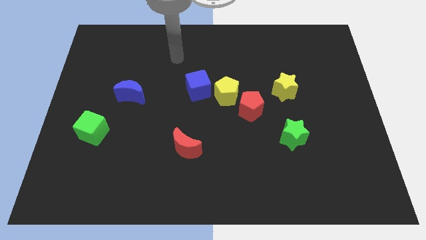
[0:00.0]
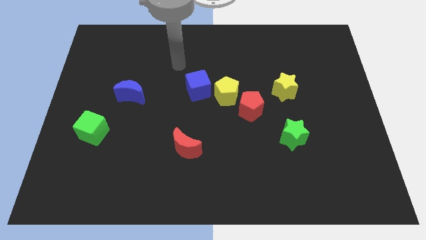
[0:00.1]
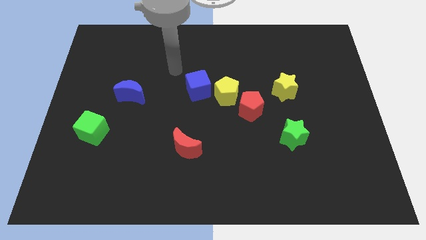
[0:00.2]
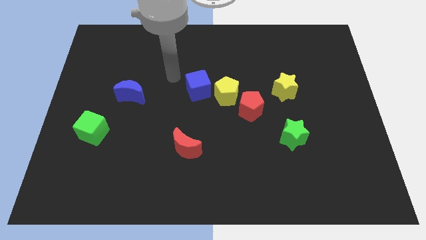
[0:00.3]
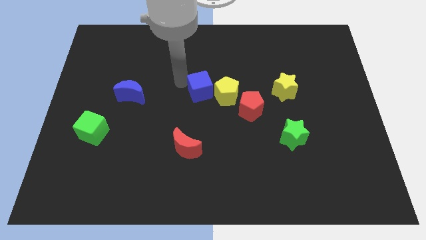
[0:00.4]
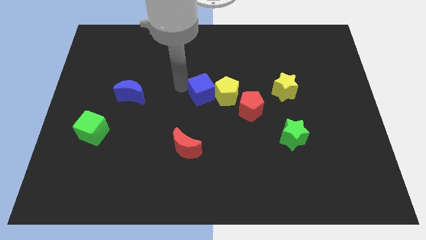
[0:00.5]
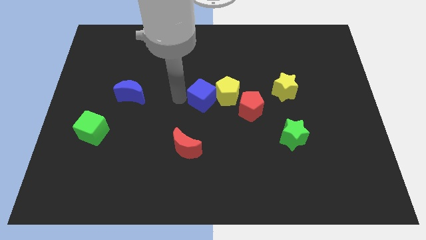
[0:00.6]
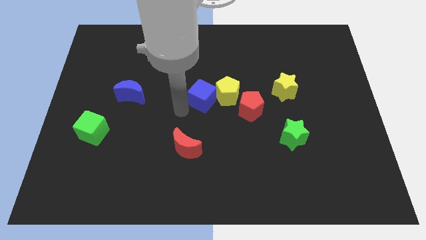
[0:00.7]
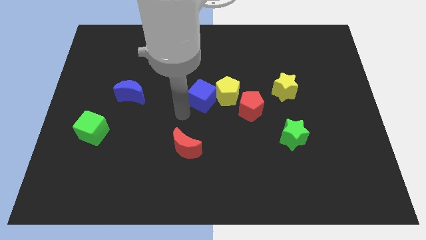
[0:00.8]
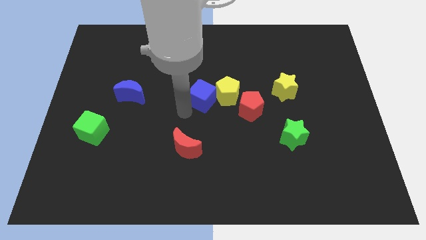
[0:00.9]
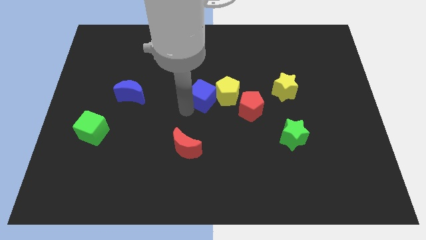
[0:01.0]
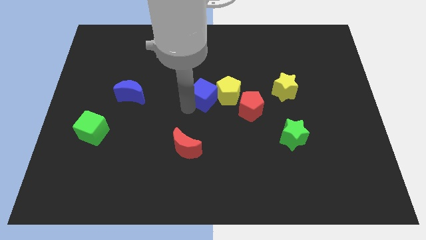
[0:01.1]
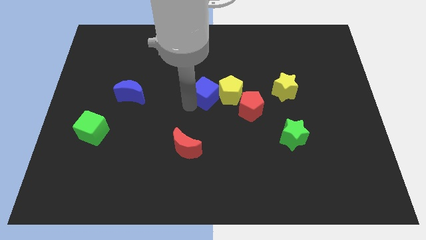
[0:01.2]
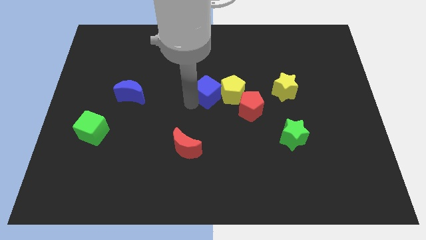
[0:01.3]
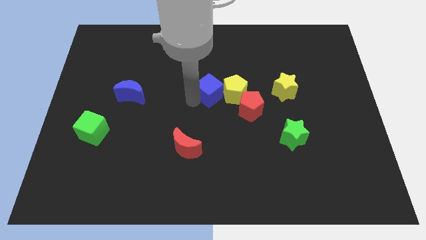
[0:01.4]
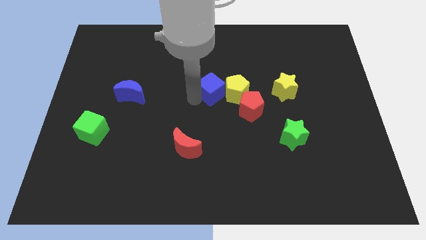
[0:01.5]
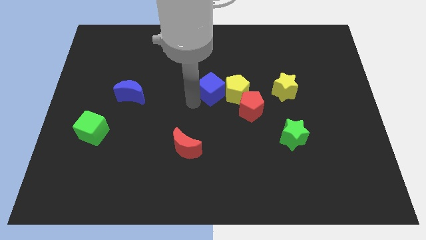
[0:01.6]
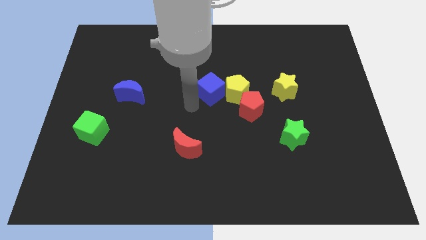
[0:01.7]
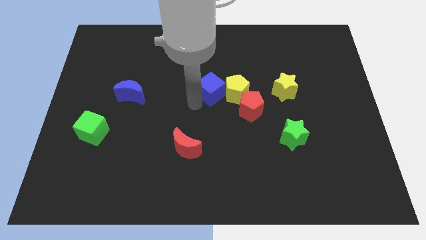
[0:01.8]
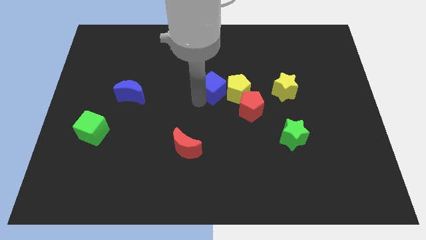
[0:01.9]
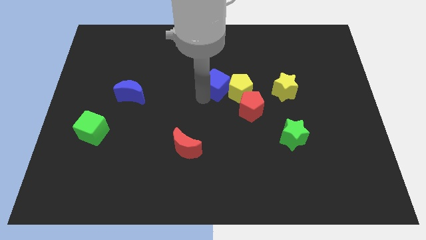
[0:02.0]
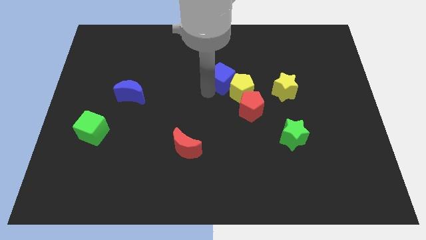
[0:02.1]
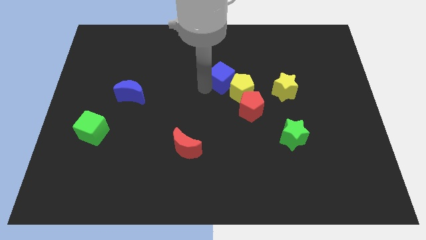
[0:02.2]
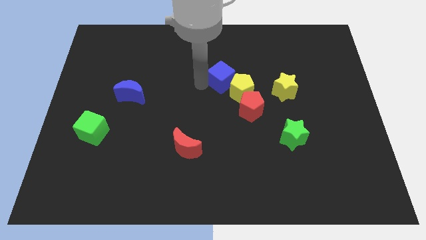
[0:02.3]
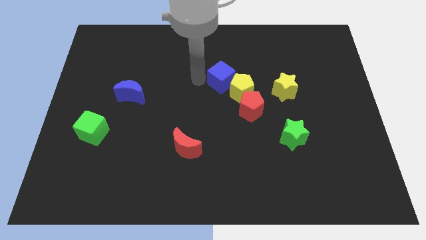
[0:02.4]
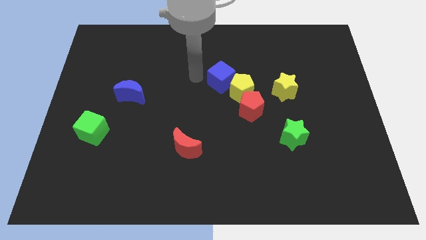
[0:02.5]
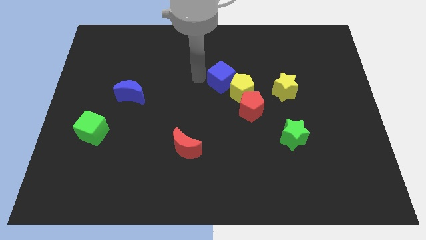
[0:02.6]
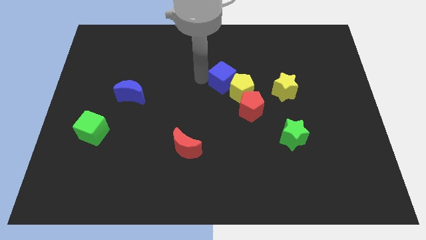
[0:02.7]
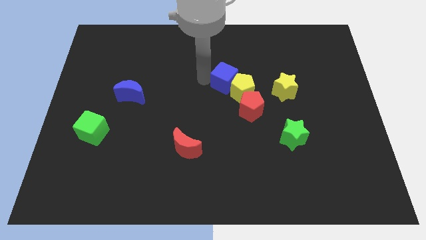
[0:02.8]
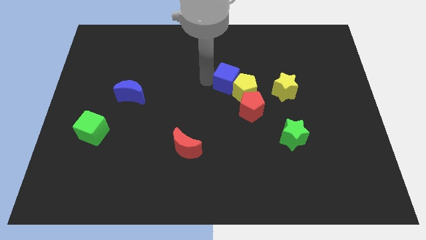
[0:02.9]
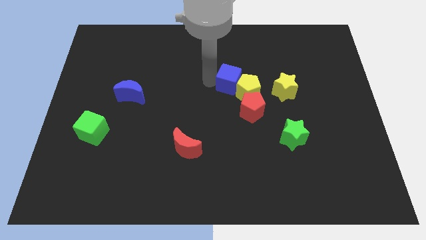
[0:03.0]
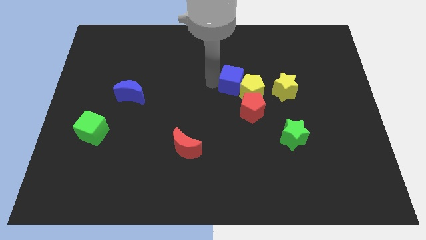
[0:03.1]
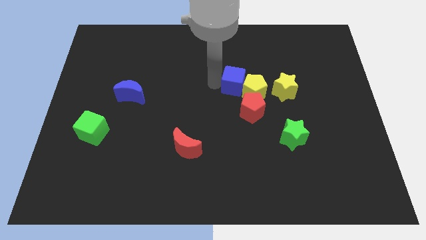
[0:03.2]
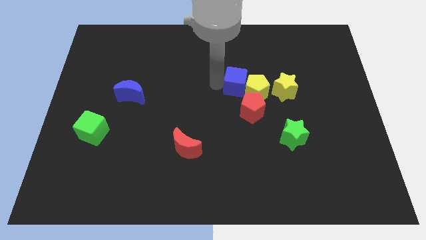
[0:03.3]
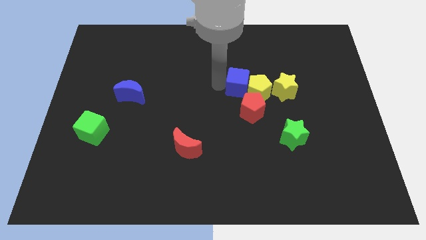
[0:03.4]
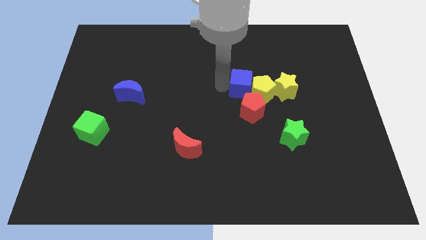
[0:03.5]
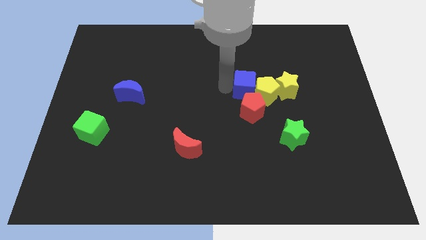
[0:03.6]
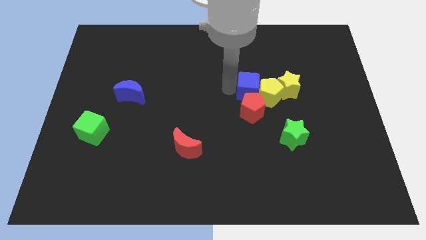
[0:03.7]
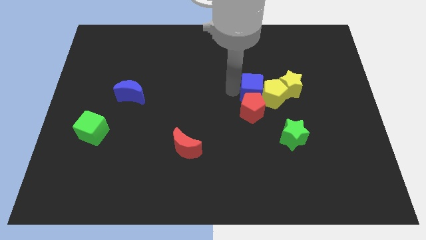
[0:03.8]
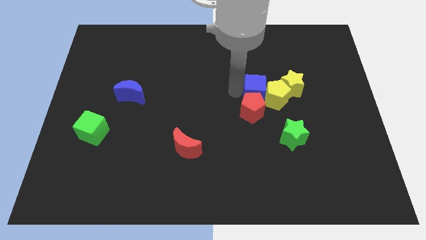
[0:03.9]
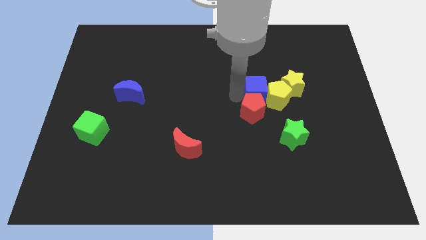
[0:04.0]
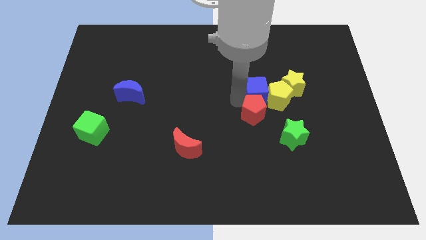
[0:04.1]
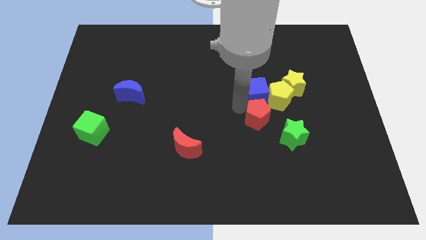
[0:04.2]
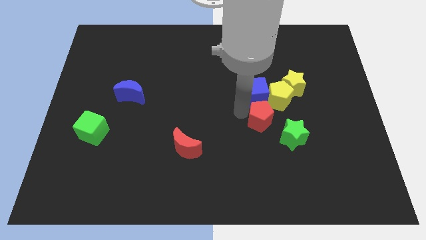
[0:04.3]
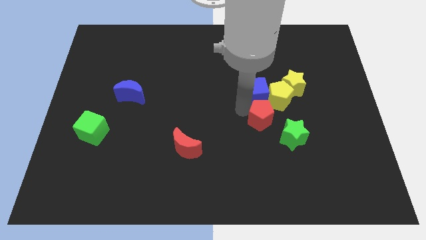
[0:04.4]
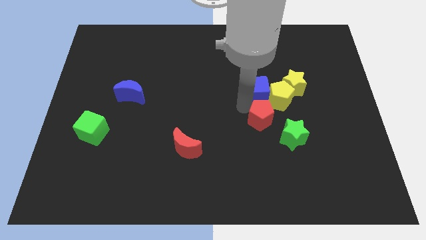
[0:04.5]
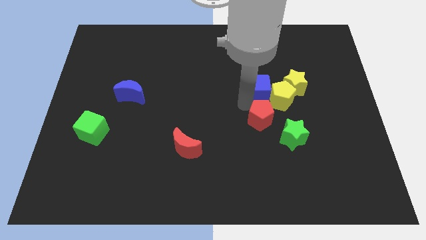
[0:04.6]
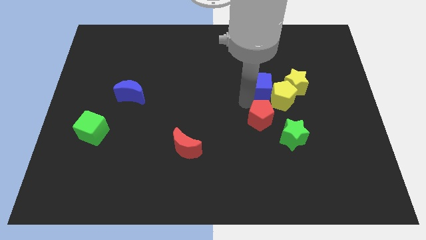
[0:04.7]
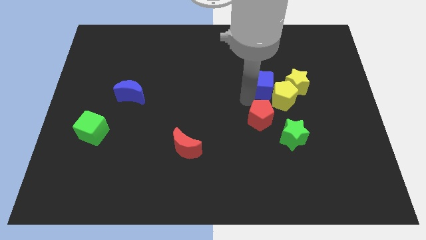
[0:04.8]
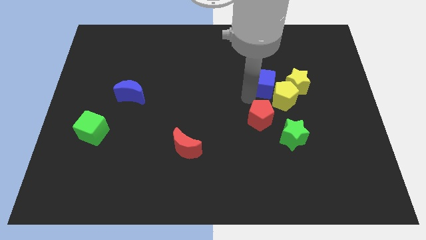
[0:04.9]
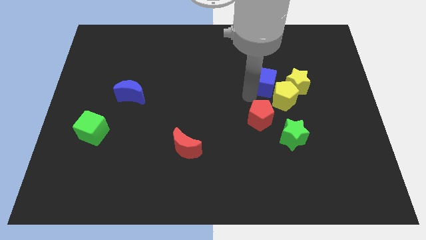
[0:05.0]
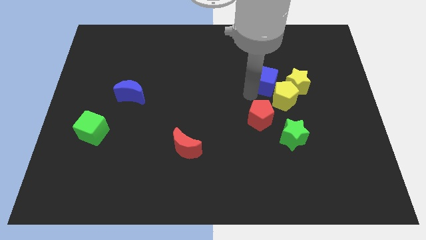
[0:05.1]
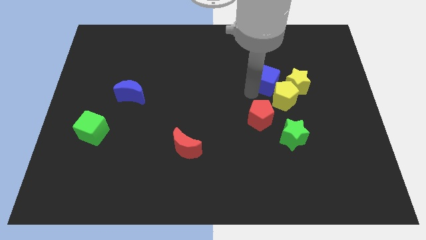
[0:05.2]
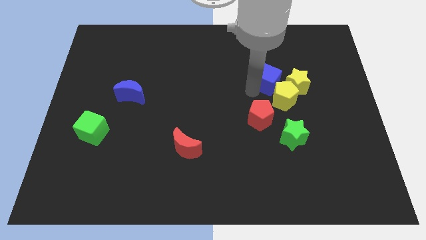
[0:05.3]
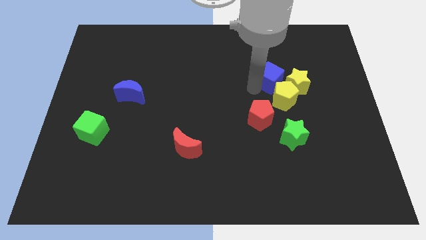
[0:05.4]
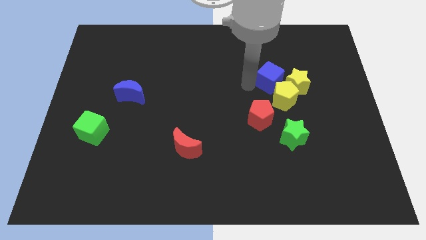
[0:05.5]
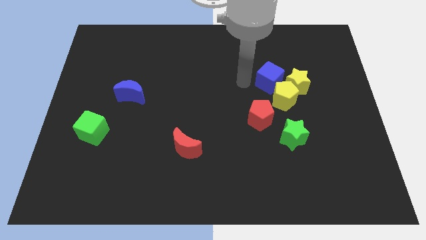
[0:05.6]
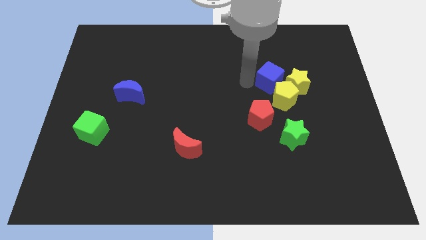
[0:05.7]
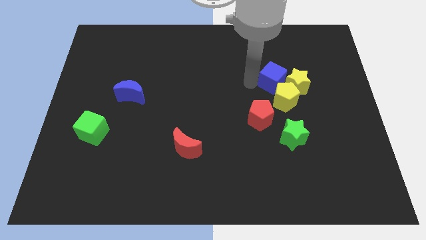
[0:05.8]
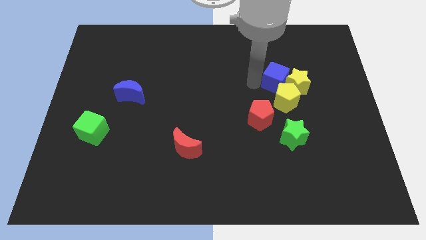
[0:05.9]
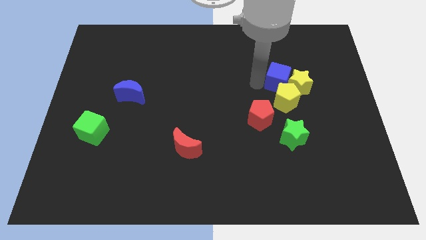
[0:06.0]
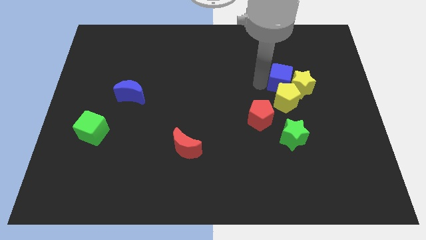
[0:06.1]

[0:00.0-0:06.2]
move the blue cube right

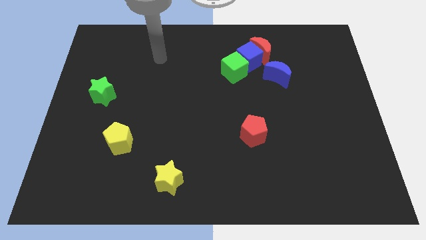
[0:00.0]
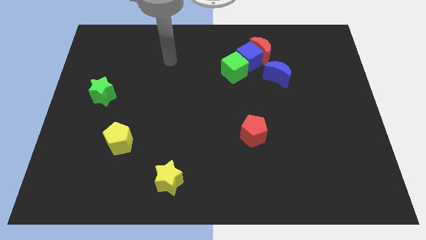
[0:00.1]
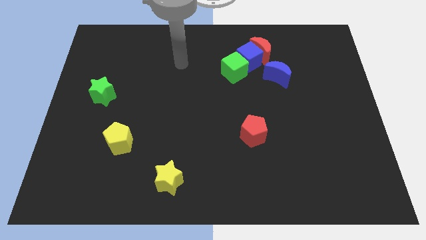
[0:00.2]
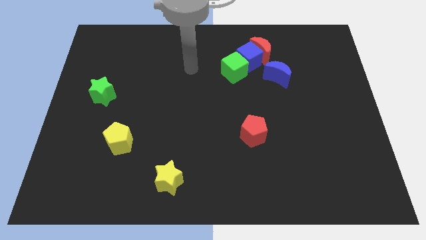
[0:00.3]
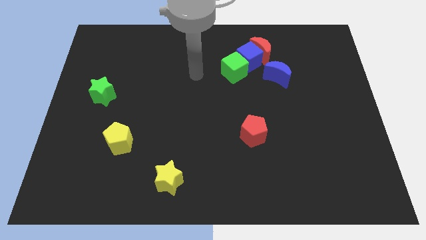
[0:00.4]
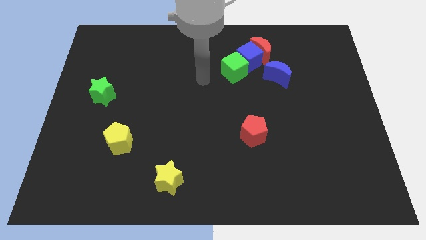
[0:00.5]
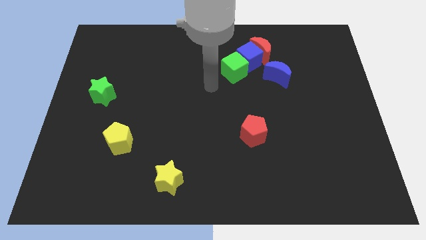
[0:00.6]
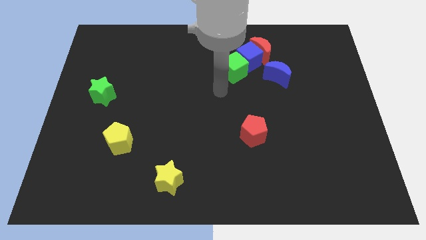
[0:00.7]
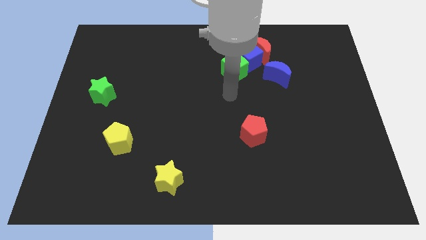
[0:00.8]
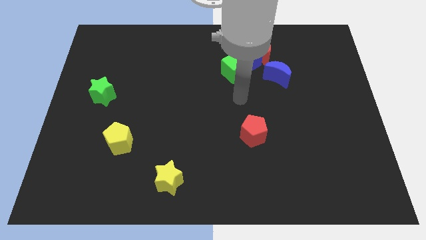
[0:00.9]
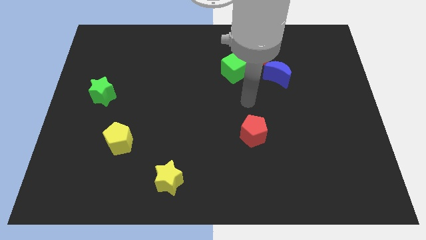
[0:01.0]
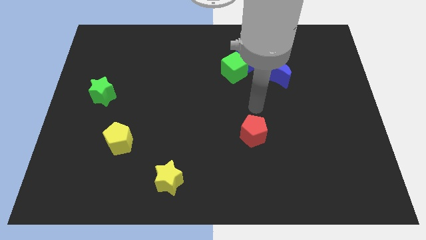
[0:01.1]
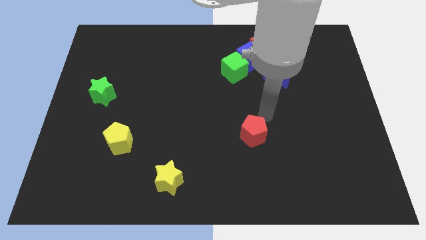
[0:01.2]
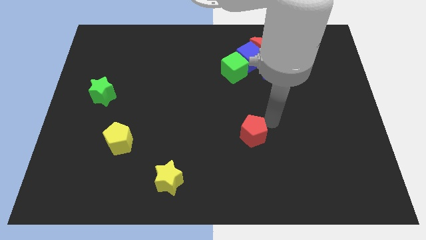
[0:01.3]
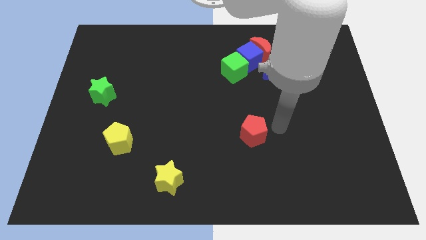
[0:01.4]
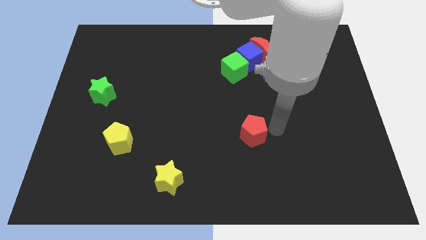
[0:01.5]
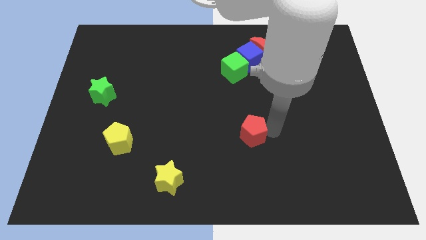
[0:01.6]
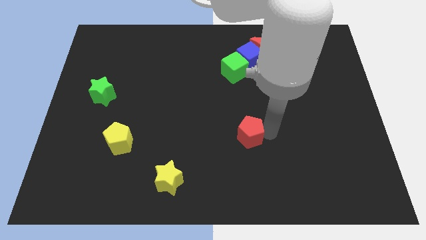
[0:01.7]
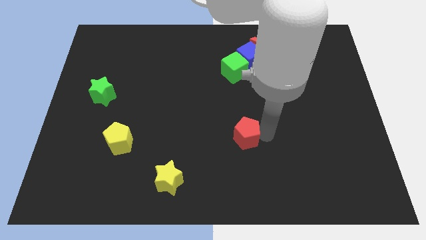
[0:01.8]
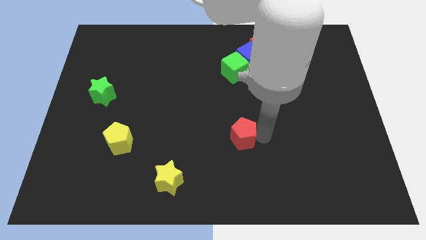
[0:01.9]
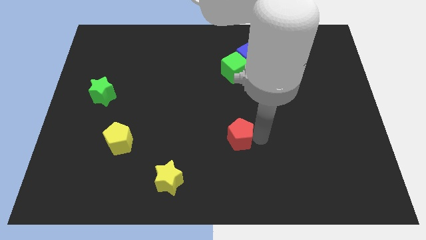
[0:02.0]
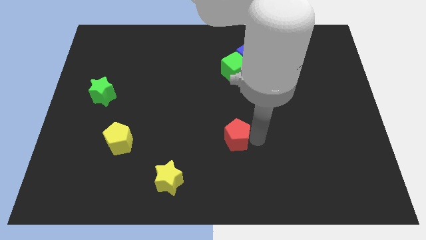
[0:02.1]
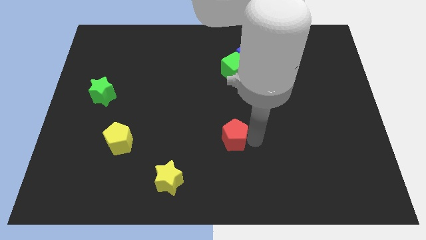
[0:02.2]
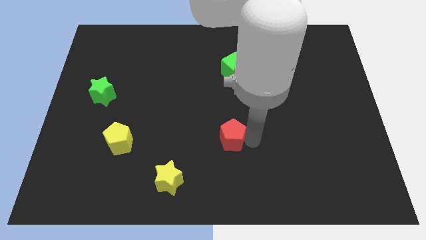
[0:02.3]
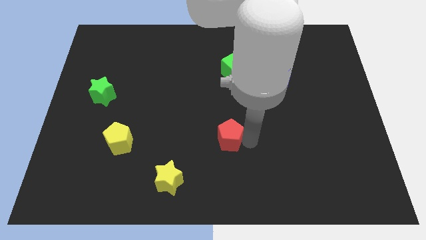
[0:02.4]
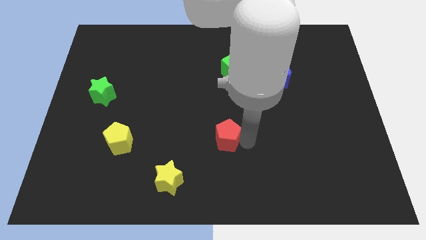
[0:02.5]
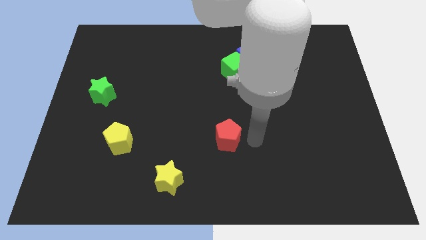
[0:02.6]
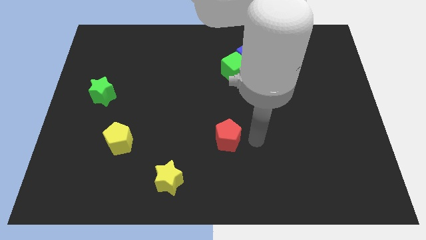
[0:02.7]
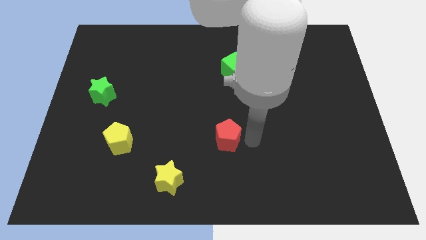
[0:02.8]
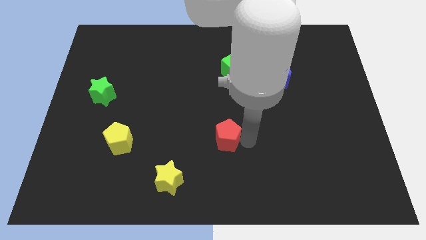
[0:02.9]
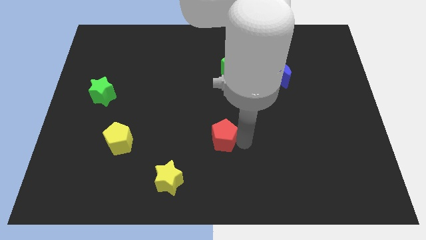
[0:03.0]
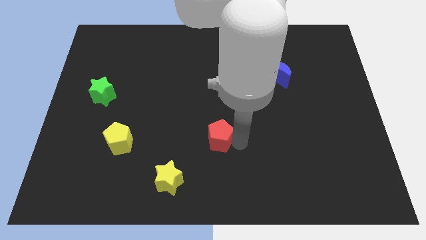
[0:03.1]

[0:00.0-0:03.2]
push the red pentagon a little left
